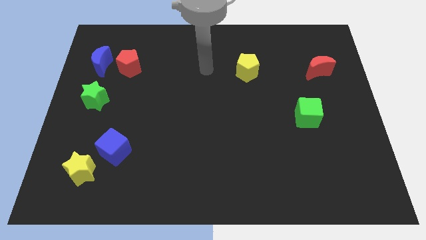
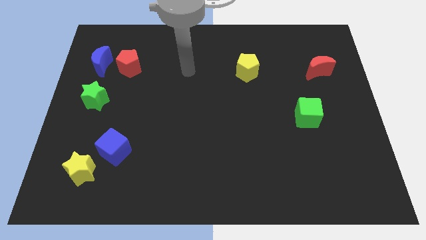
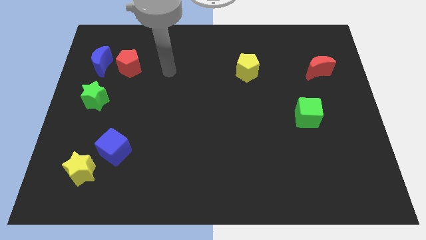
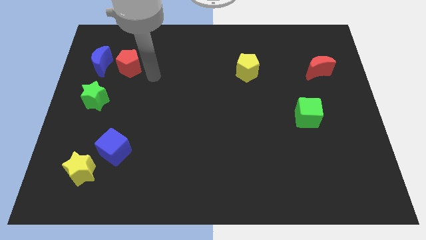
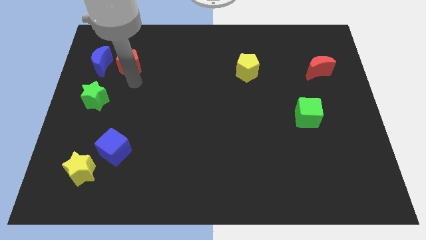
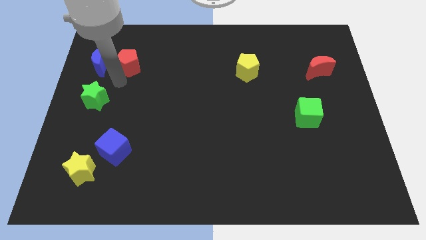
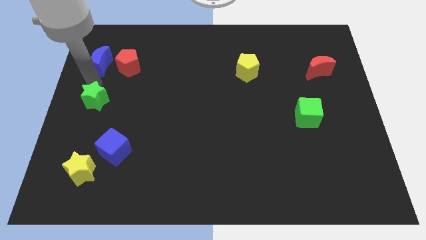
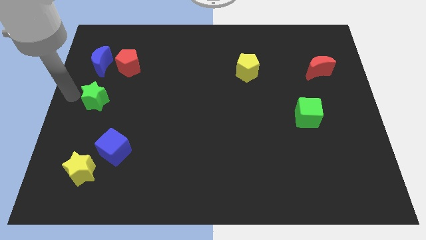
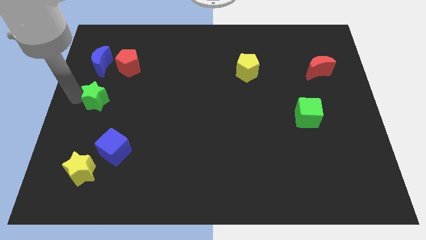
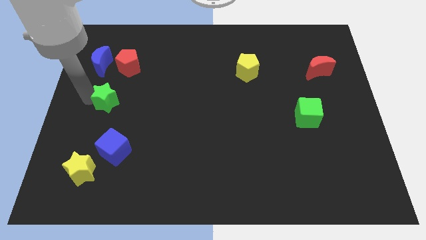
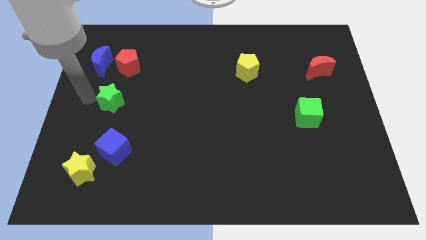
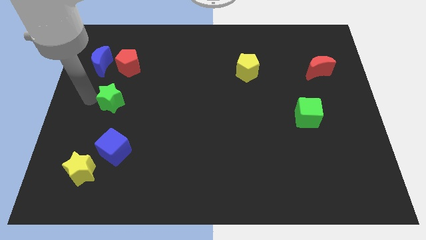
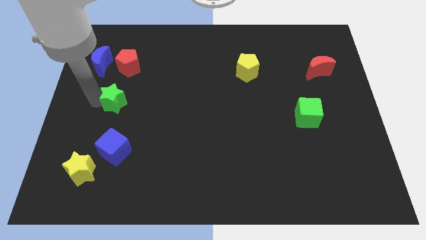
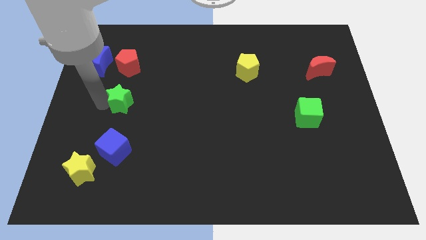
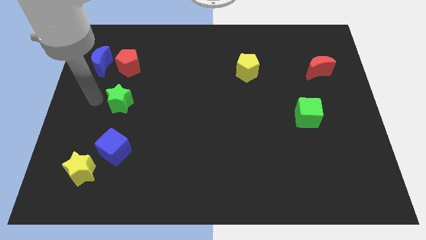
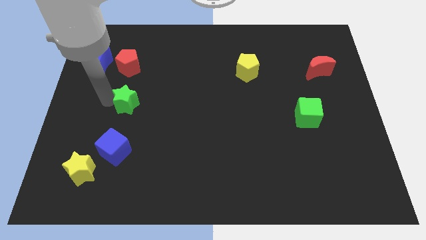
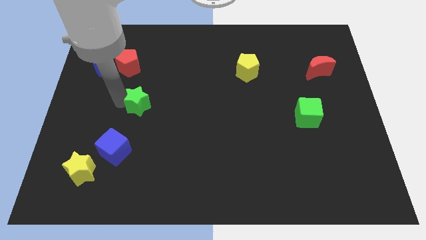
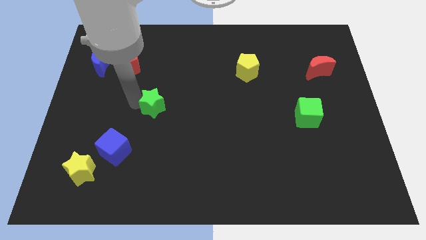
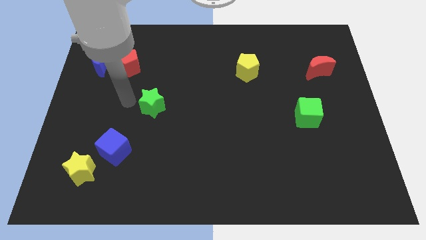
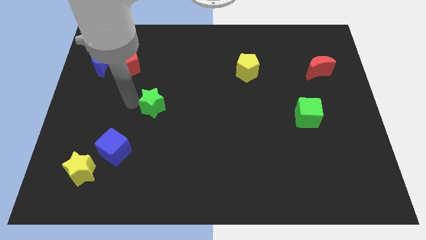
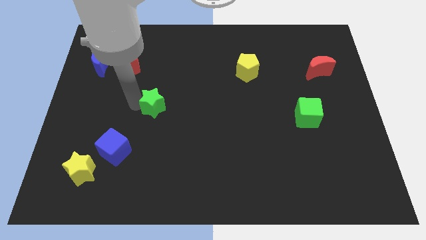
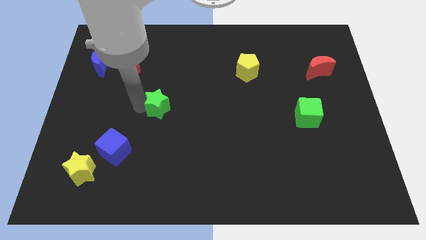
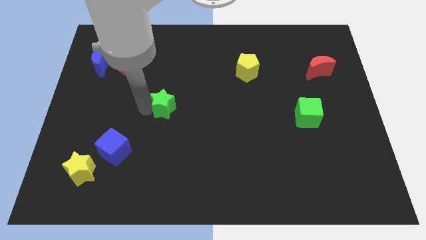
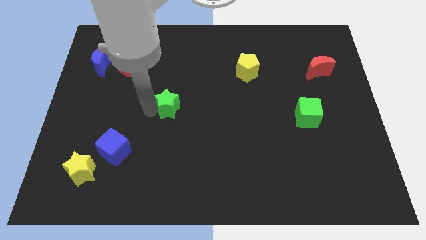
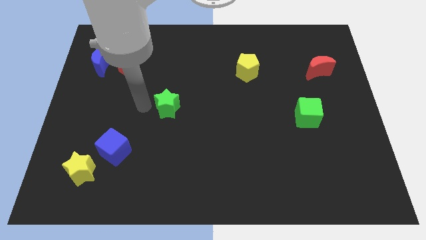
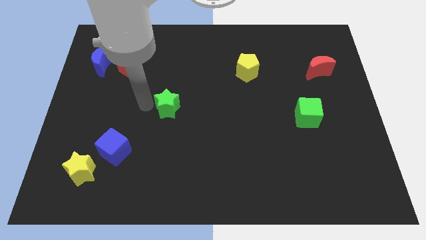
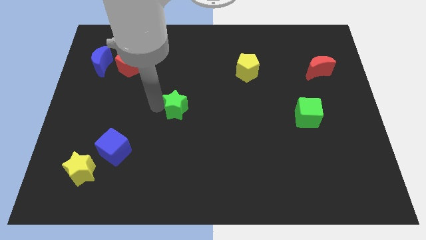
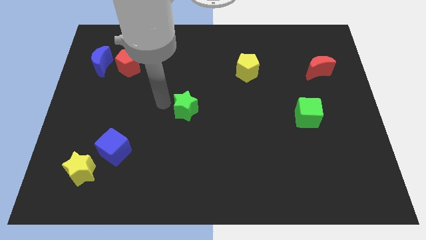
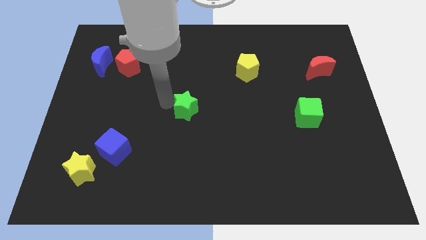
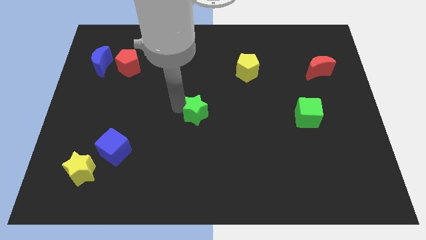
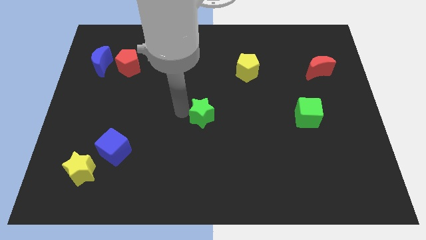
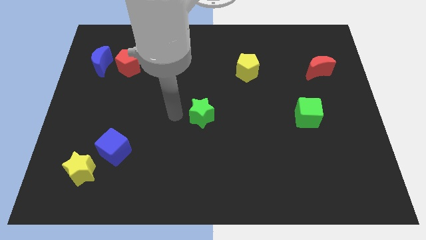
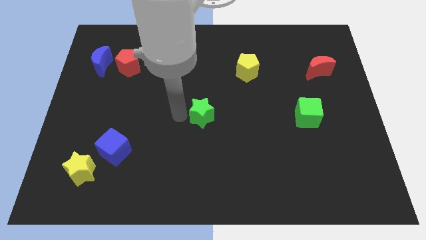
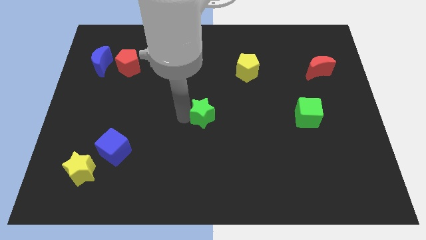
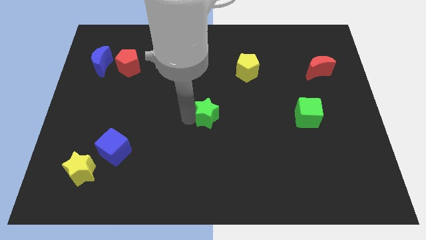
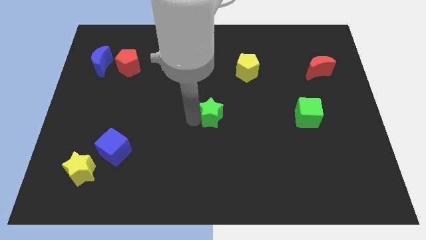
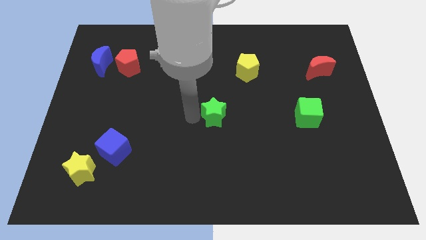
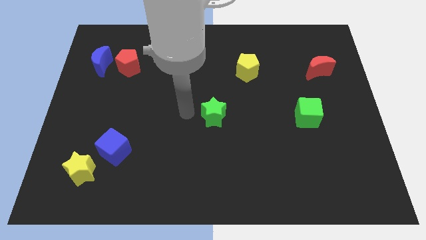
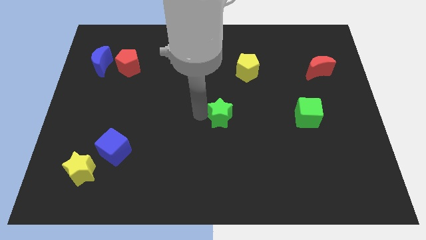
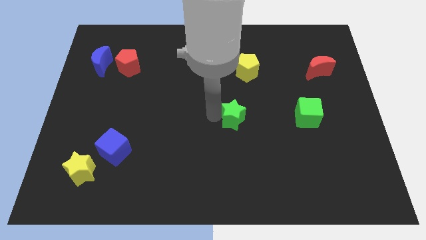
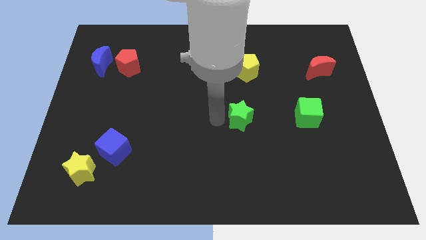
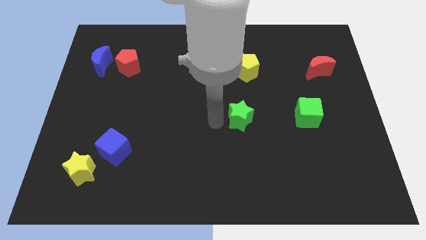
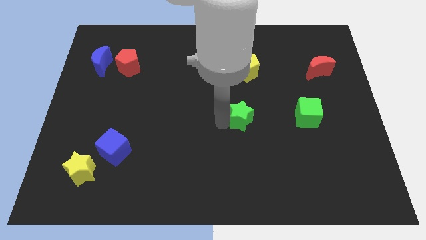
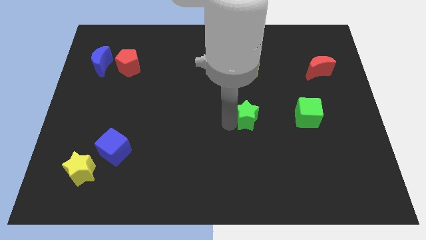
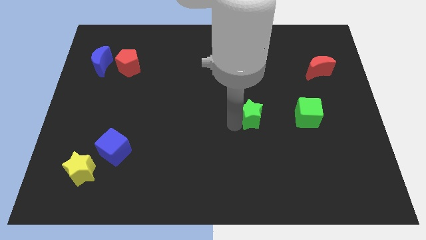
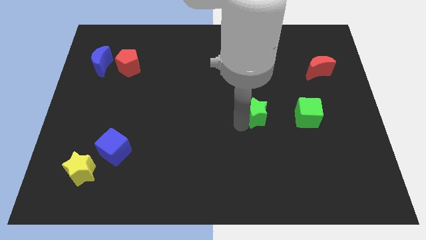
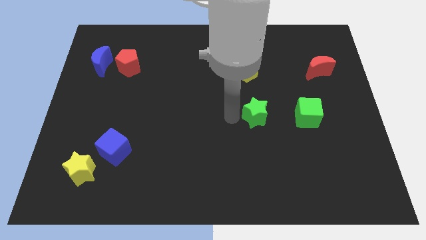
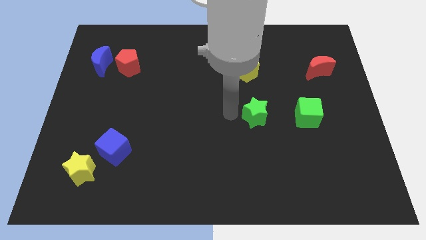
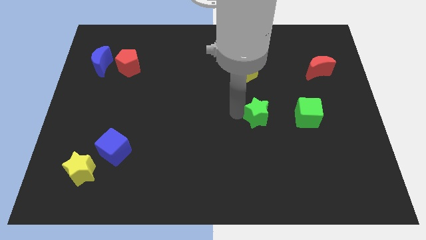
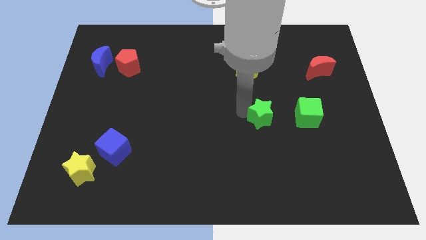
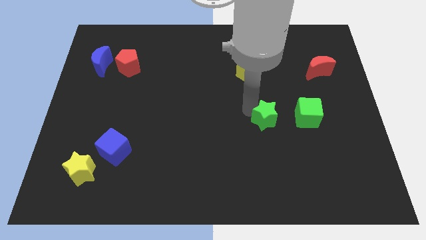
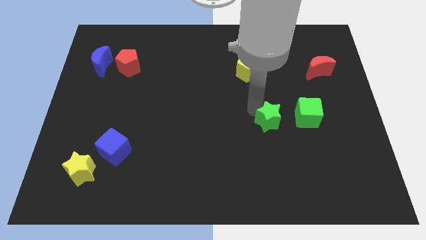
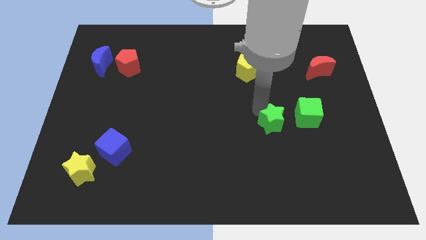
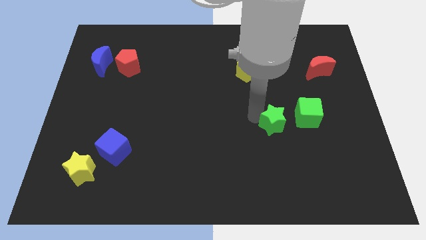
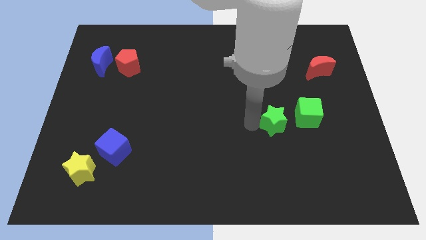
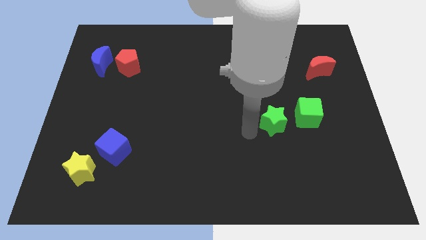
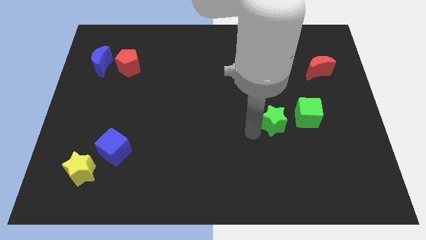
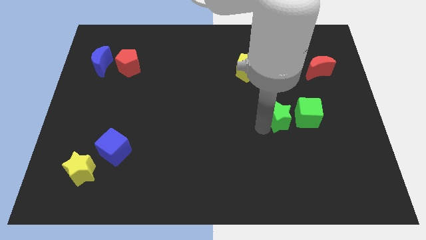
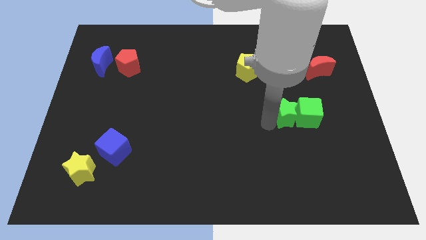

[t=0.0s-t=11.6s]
put the green star to the green cube

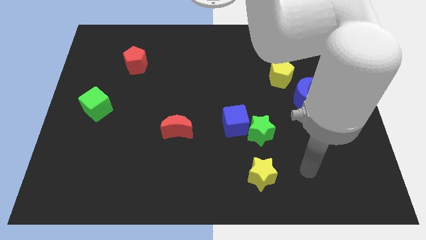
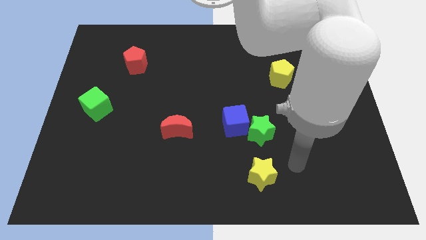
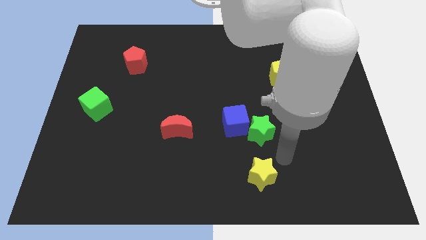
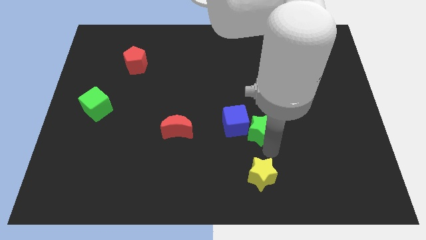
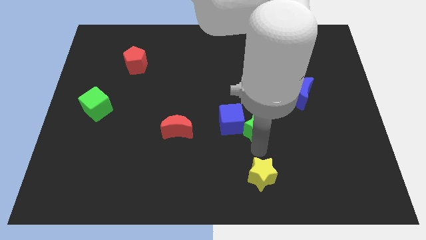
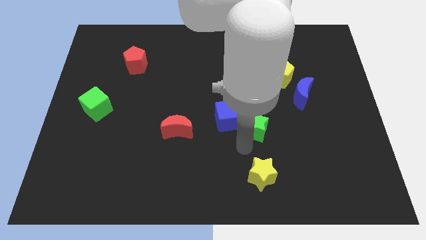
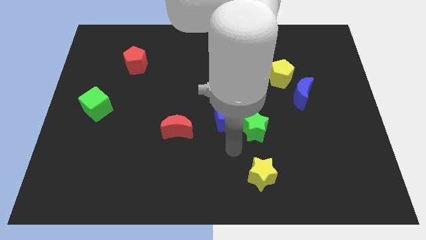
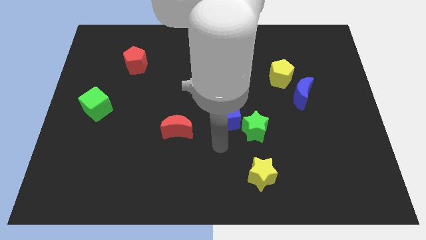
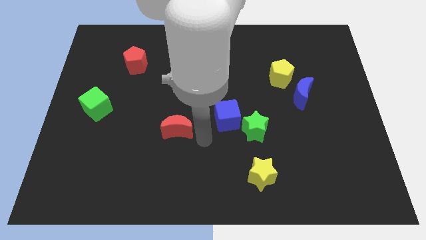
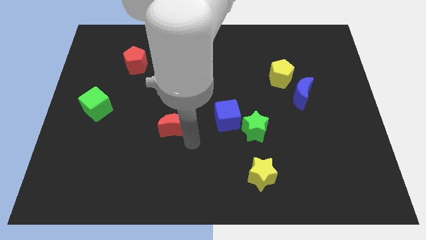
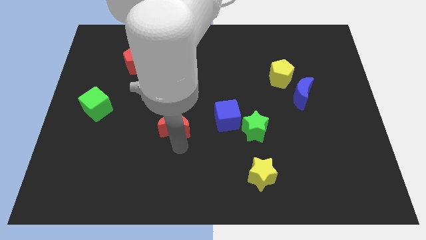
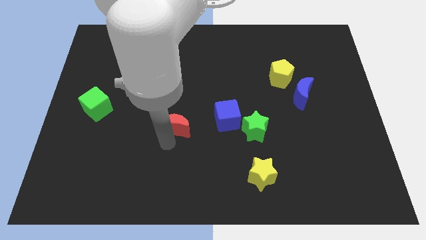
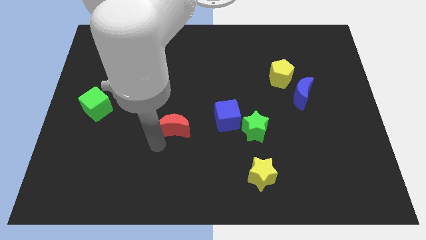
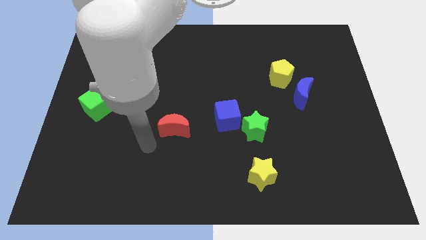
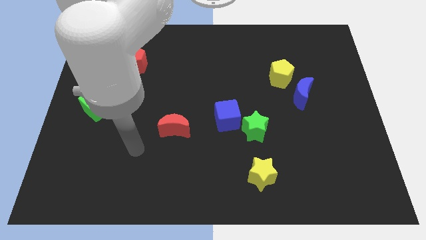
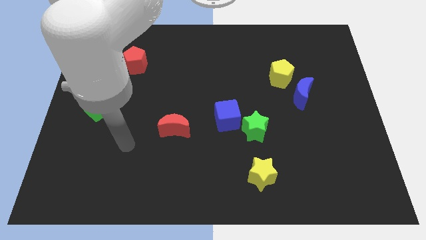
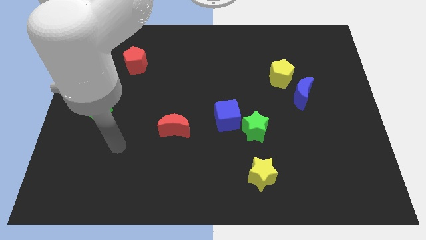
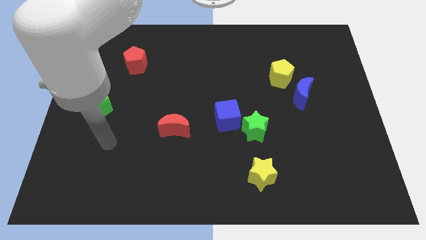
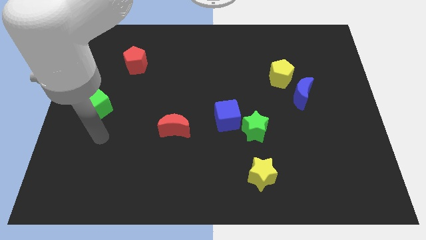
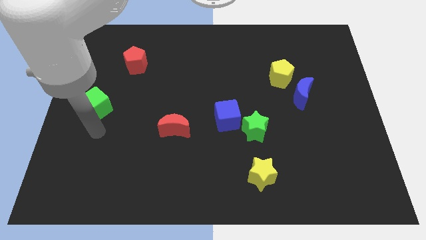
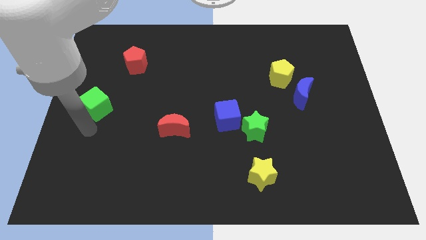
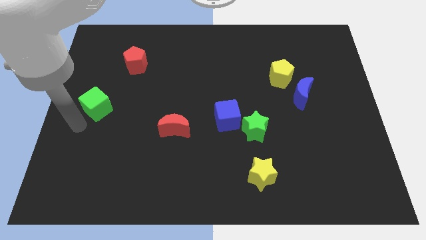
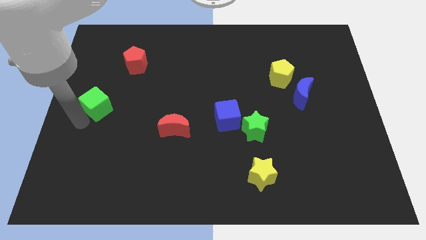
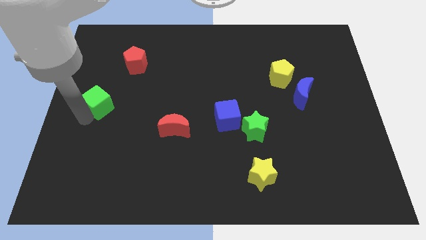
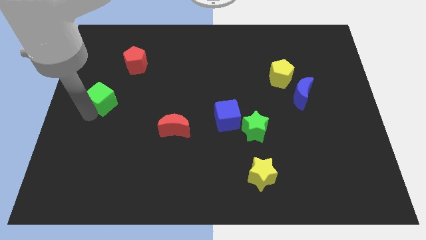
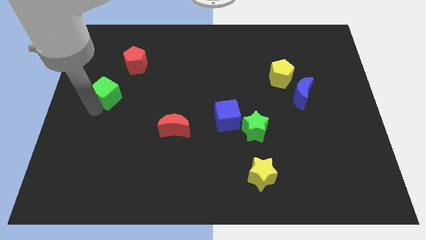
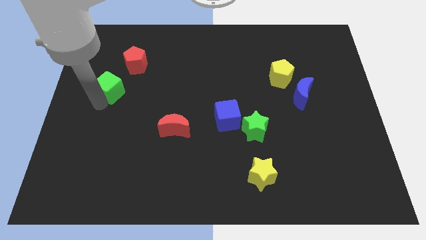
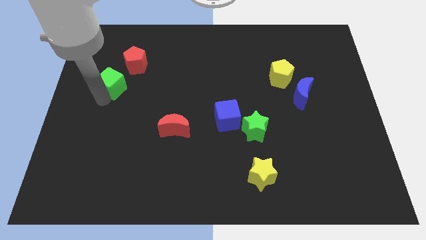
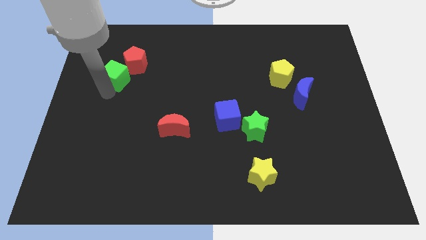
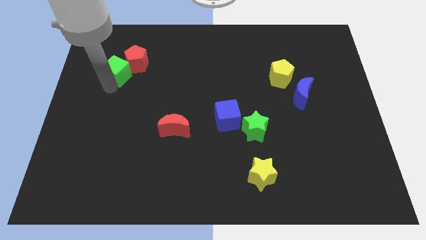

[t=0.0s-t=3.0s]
push the green cube towards the red pentagon
